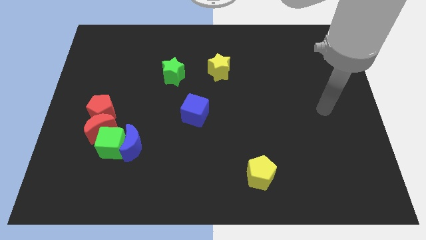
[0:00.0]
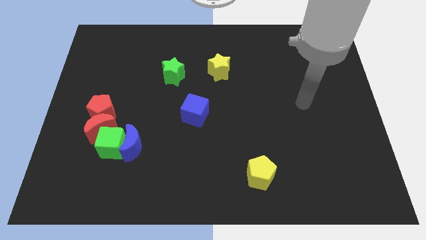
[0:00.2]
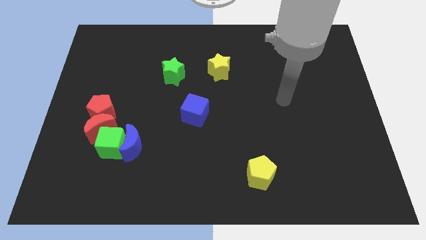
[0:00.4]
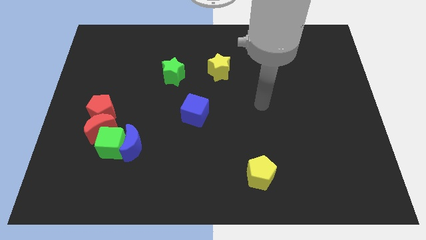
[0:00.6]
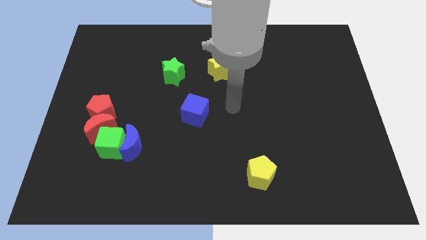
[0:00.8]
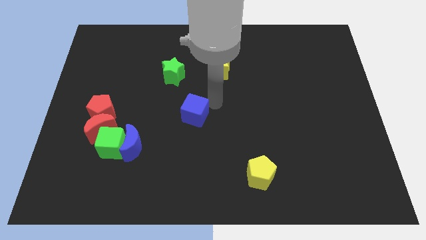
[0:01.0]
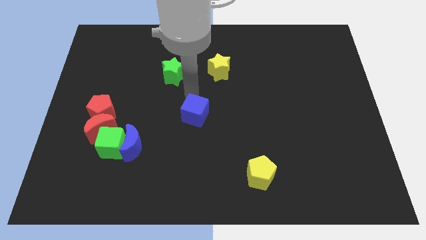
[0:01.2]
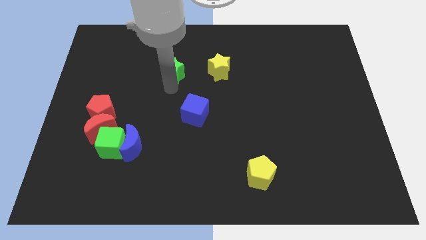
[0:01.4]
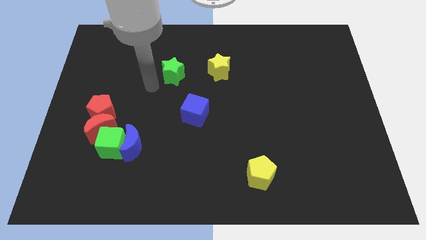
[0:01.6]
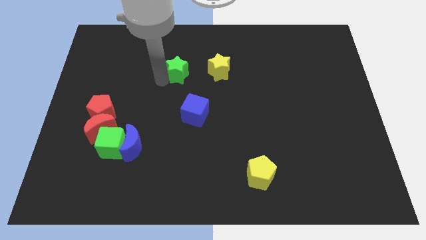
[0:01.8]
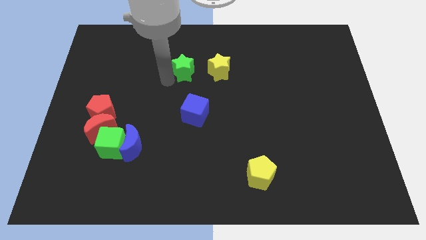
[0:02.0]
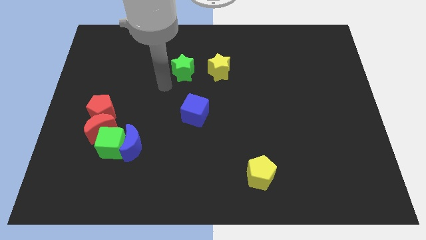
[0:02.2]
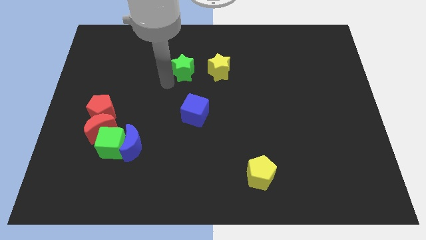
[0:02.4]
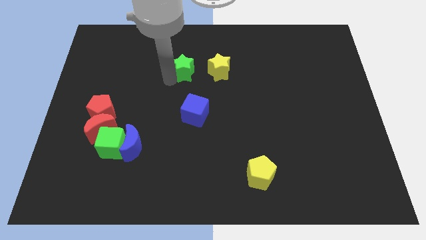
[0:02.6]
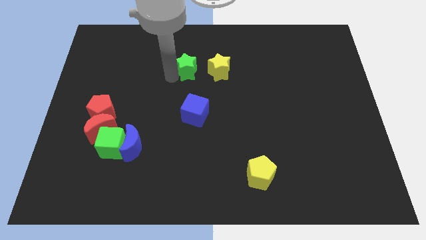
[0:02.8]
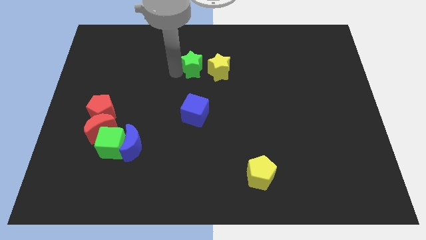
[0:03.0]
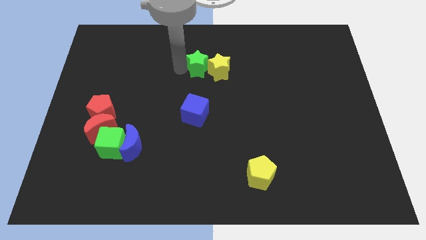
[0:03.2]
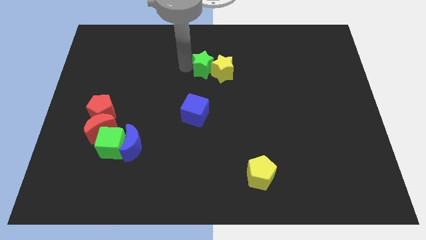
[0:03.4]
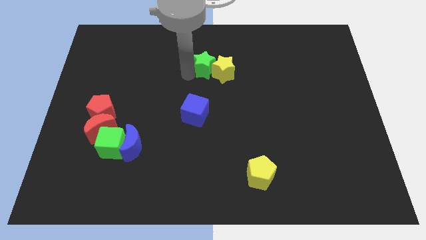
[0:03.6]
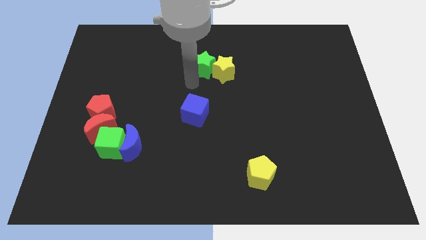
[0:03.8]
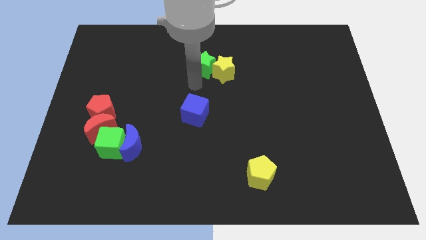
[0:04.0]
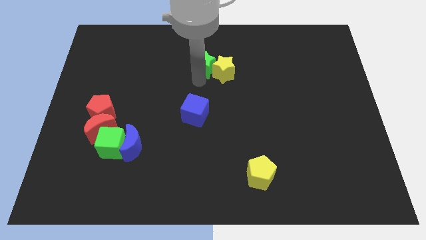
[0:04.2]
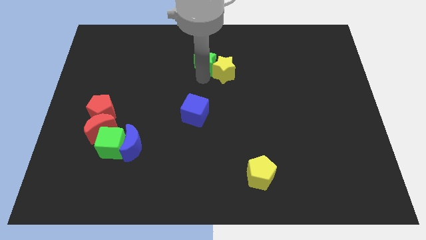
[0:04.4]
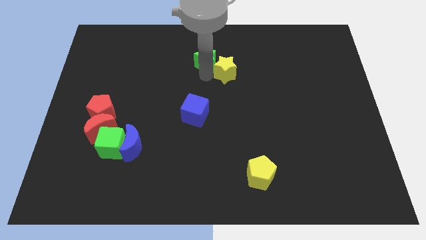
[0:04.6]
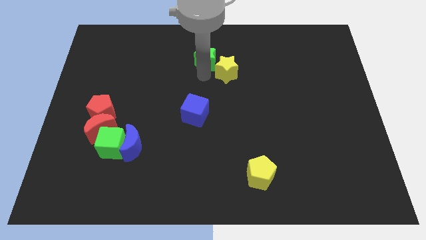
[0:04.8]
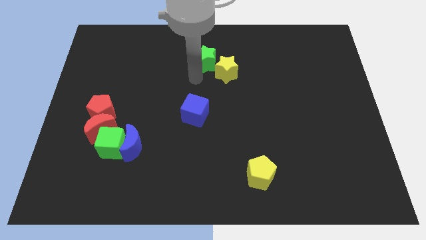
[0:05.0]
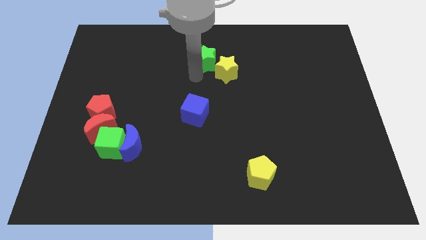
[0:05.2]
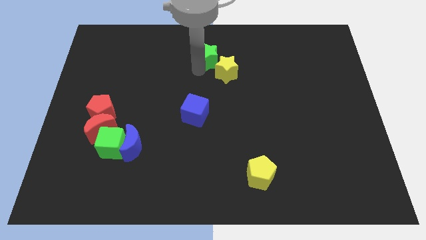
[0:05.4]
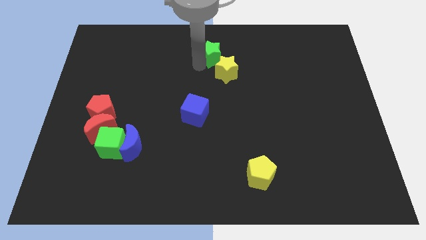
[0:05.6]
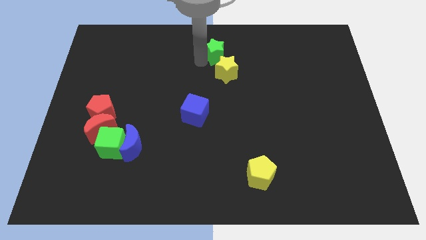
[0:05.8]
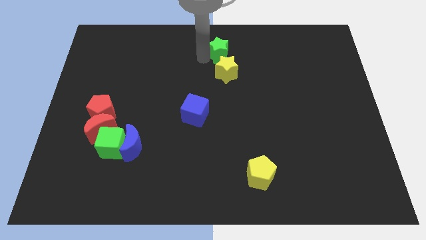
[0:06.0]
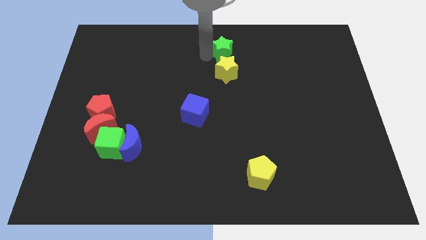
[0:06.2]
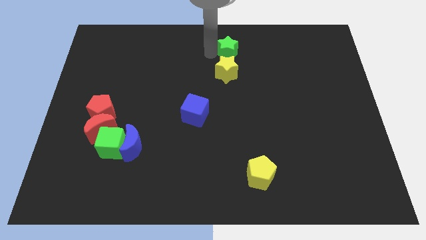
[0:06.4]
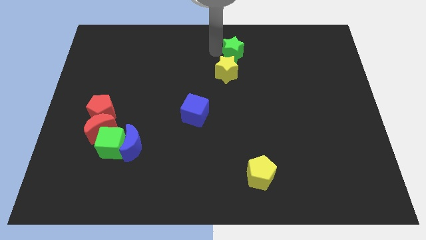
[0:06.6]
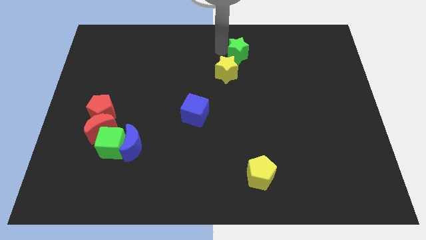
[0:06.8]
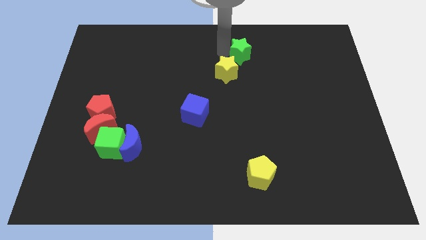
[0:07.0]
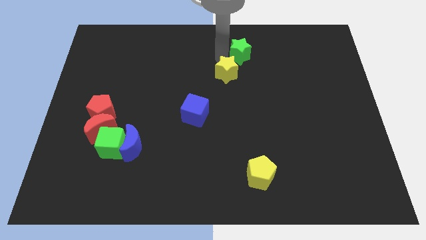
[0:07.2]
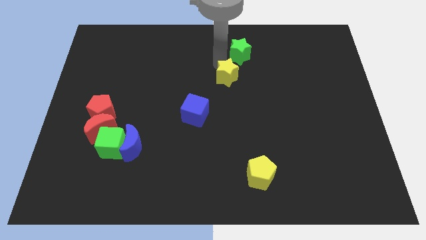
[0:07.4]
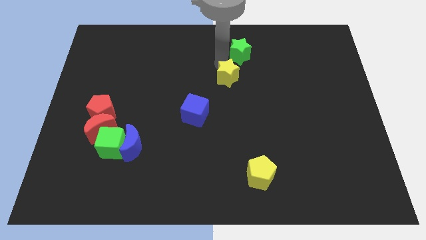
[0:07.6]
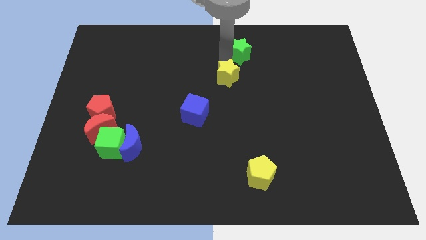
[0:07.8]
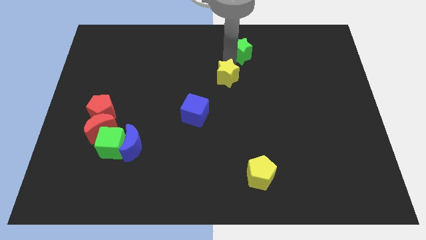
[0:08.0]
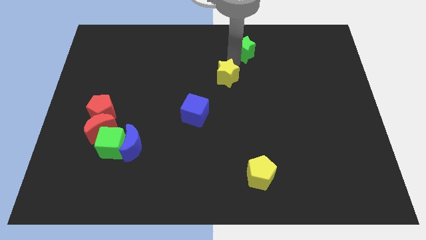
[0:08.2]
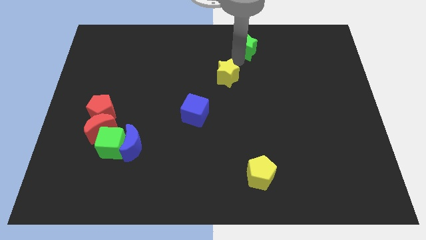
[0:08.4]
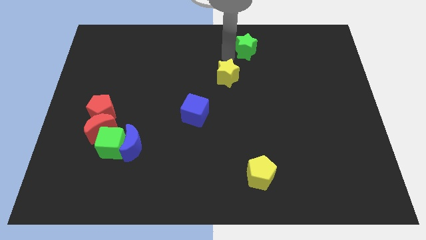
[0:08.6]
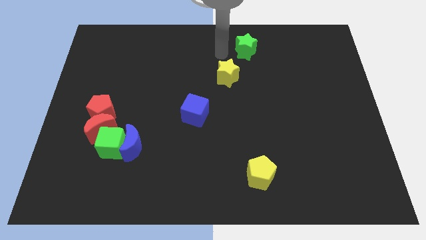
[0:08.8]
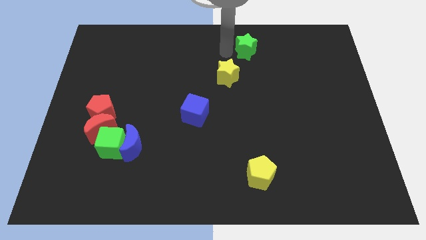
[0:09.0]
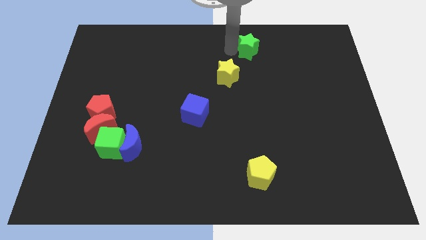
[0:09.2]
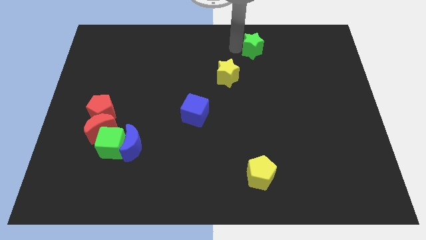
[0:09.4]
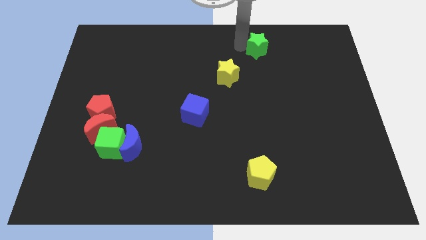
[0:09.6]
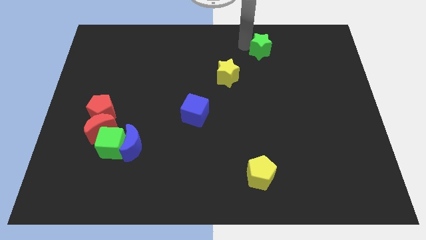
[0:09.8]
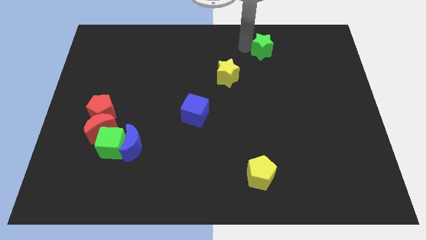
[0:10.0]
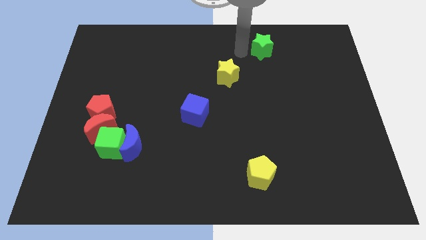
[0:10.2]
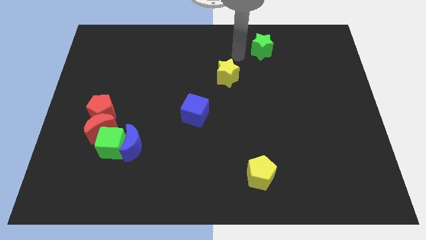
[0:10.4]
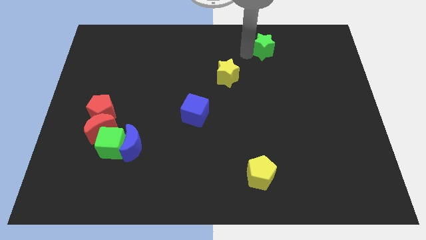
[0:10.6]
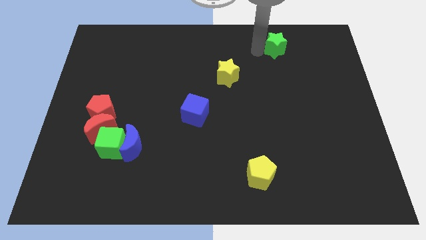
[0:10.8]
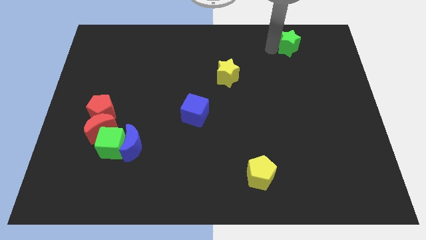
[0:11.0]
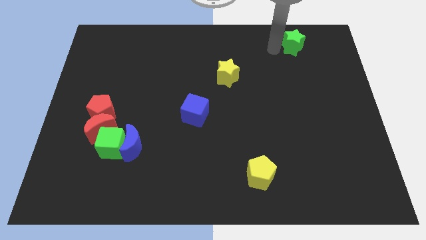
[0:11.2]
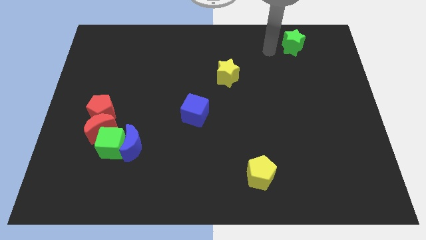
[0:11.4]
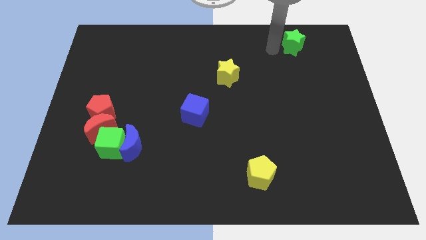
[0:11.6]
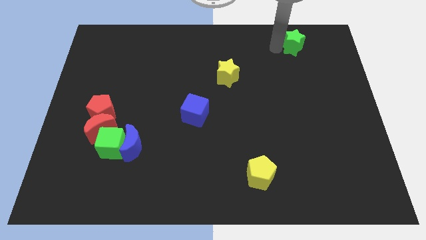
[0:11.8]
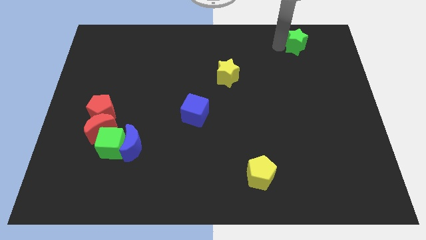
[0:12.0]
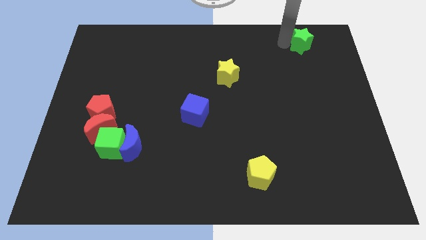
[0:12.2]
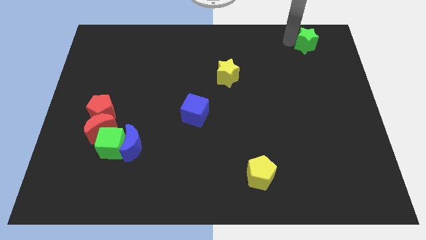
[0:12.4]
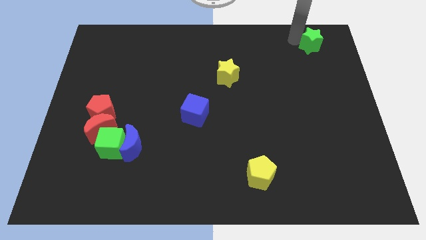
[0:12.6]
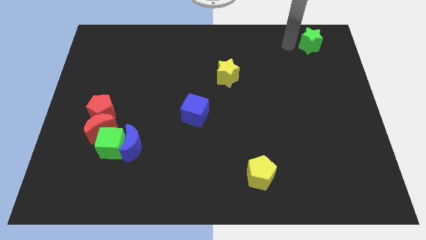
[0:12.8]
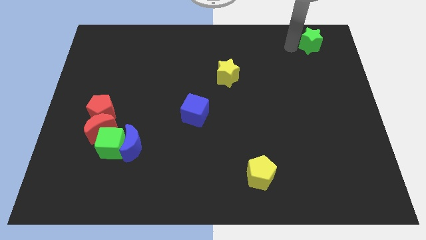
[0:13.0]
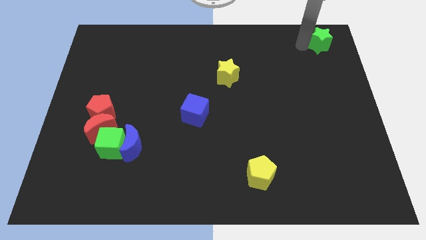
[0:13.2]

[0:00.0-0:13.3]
move the green star to the top right
